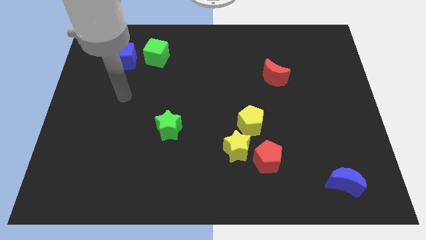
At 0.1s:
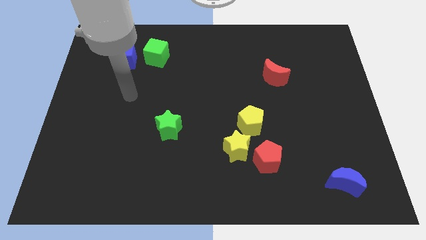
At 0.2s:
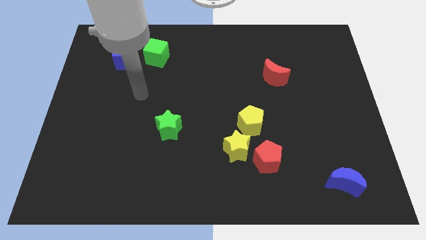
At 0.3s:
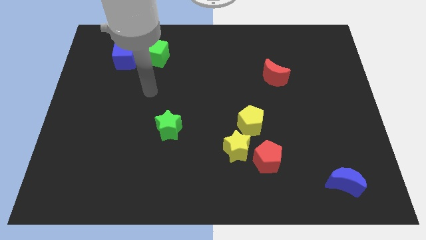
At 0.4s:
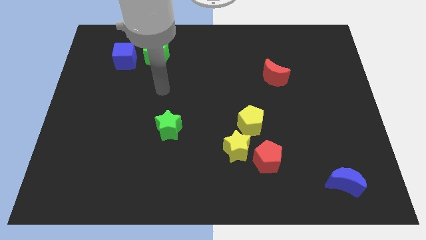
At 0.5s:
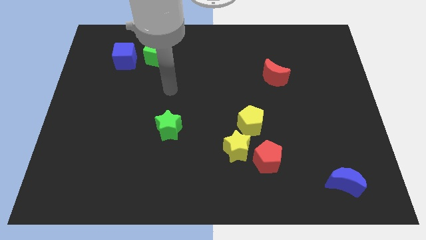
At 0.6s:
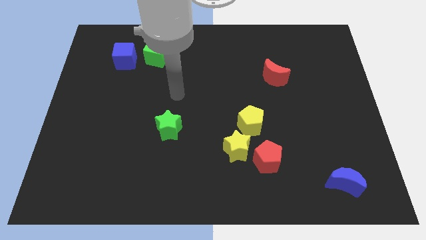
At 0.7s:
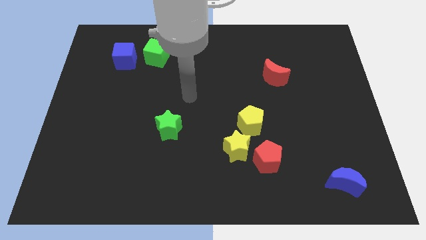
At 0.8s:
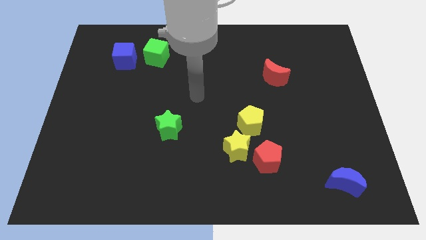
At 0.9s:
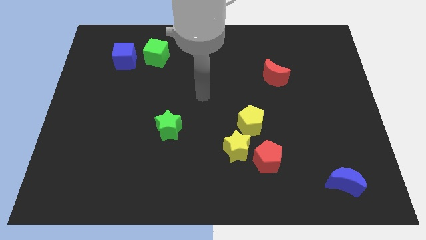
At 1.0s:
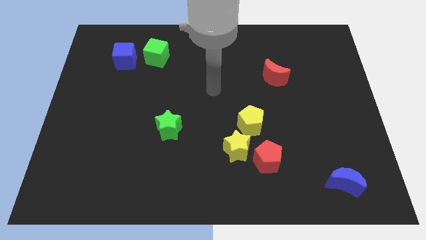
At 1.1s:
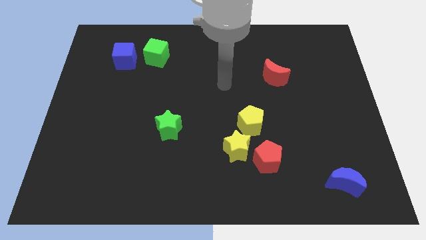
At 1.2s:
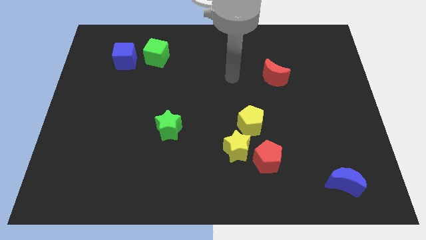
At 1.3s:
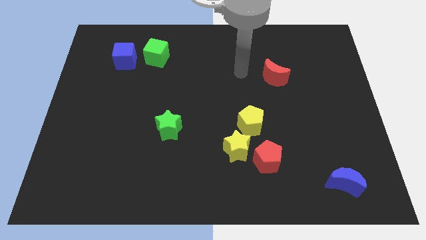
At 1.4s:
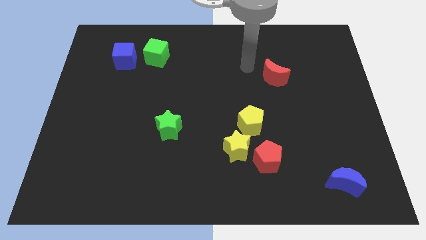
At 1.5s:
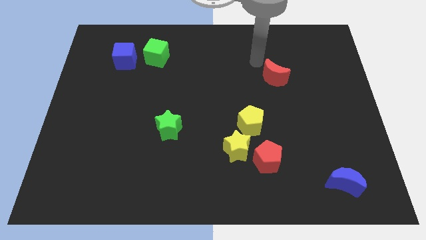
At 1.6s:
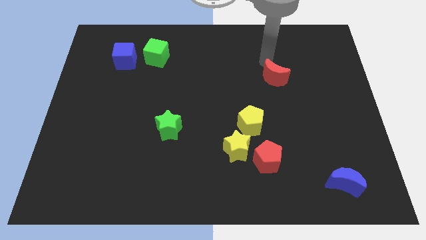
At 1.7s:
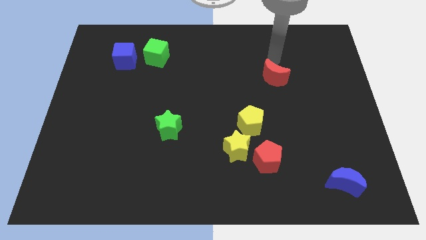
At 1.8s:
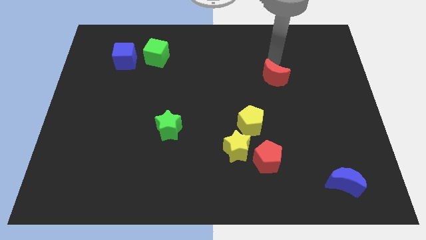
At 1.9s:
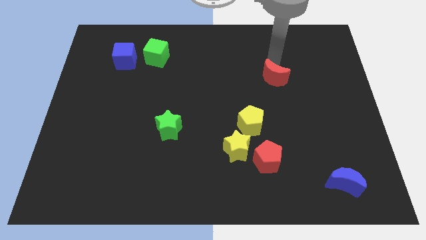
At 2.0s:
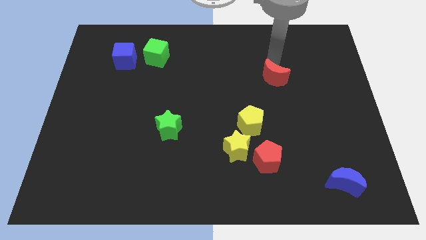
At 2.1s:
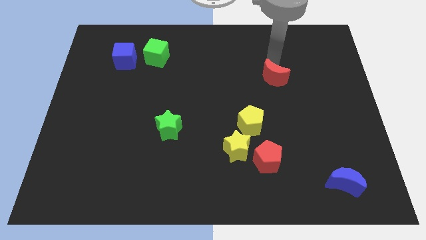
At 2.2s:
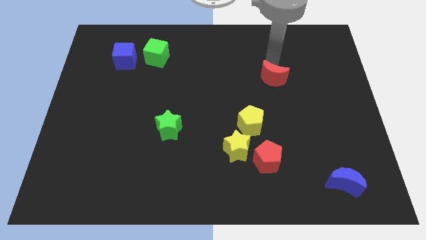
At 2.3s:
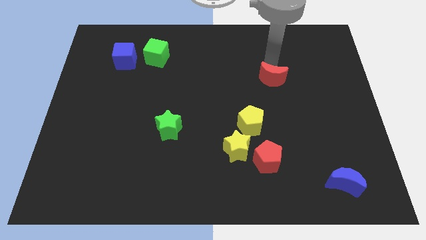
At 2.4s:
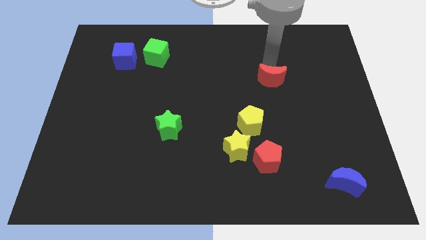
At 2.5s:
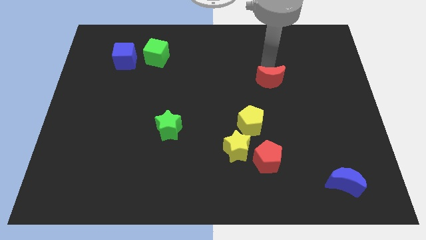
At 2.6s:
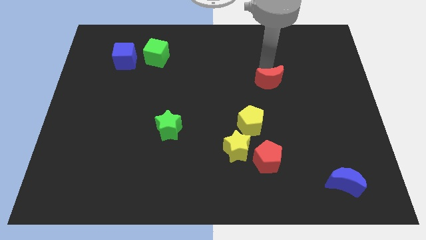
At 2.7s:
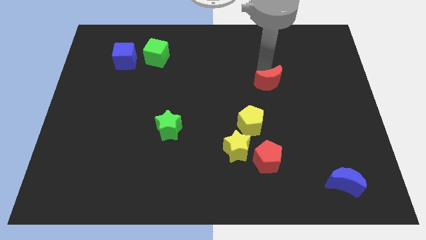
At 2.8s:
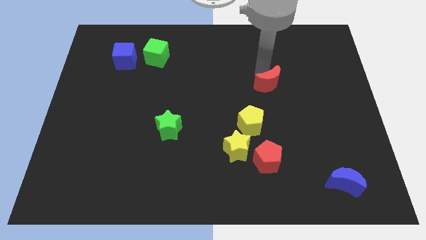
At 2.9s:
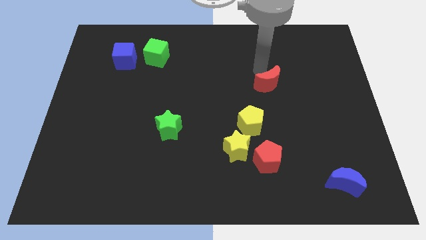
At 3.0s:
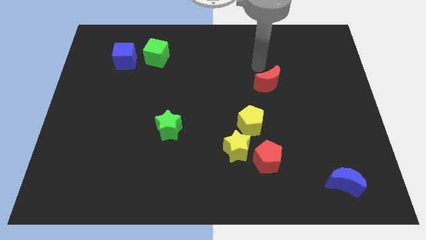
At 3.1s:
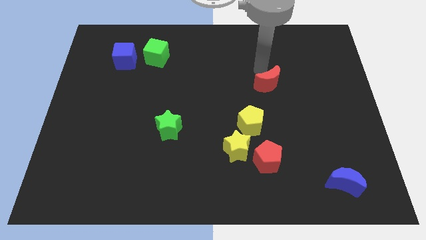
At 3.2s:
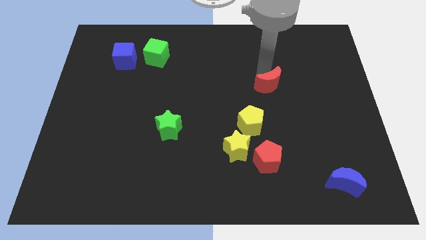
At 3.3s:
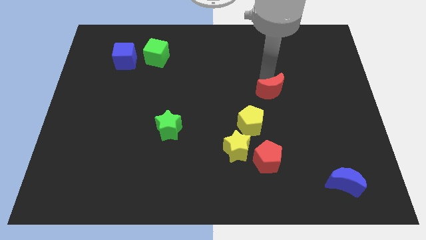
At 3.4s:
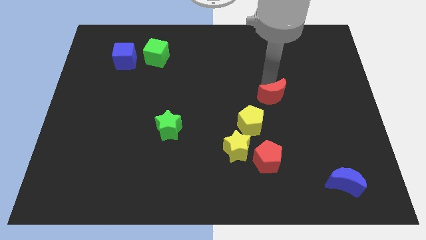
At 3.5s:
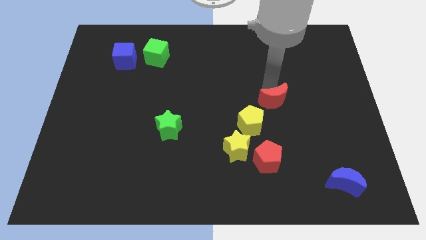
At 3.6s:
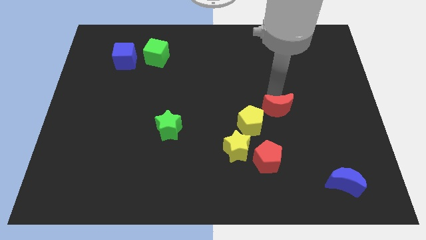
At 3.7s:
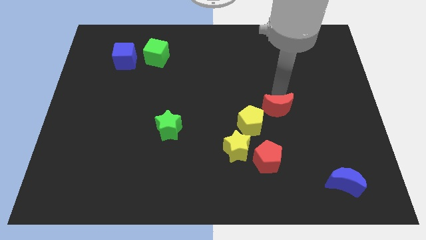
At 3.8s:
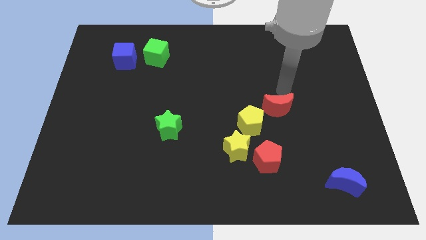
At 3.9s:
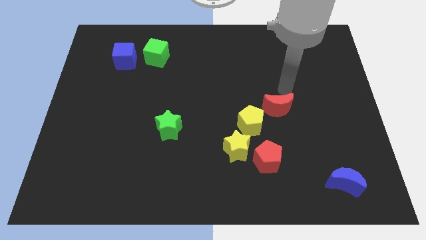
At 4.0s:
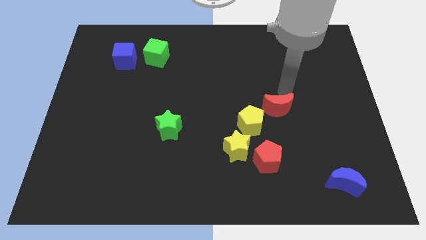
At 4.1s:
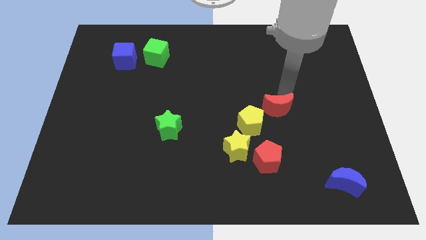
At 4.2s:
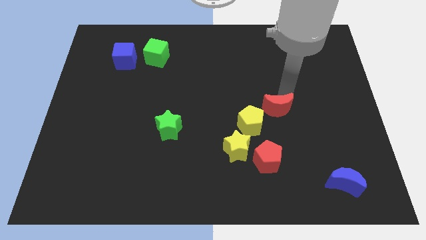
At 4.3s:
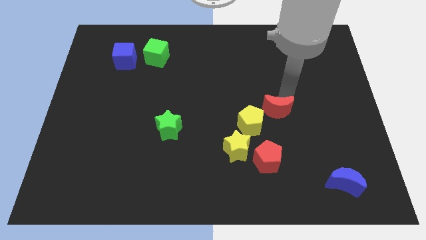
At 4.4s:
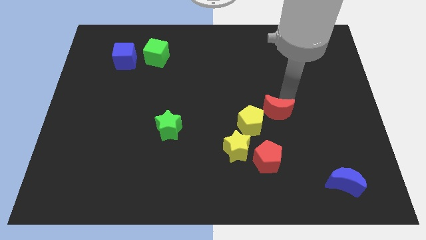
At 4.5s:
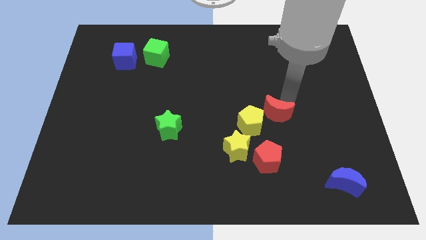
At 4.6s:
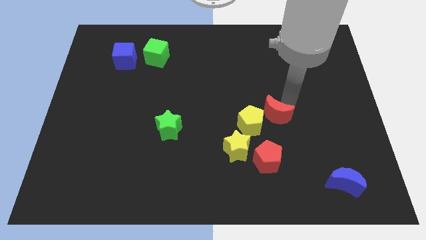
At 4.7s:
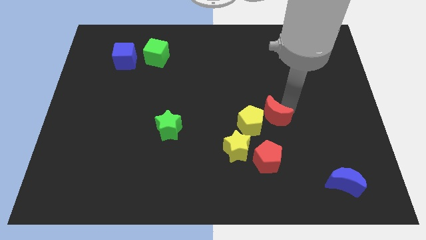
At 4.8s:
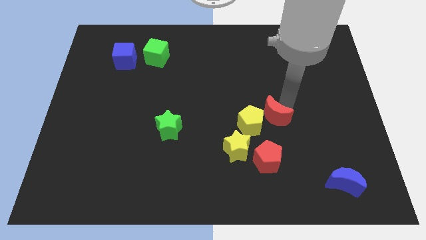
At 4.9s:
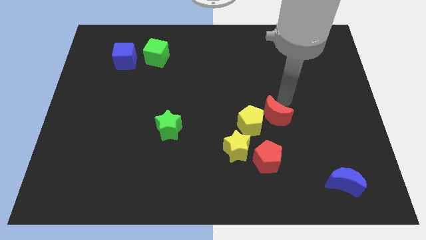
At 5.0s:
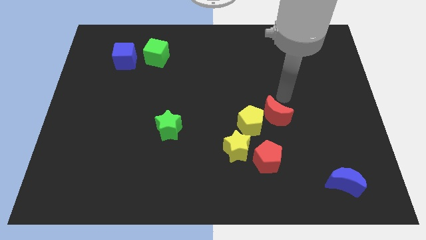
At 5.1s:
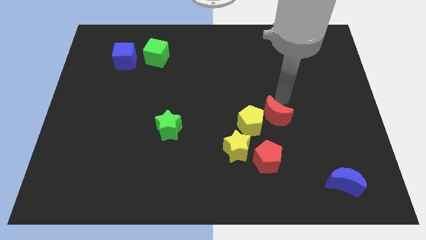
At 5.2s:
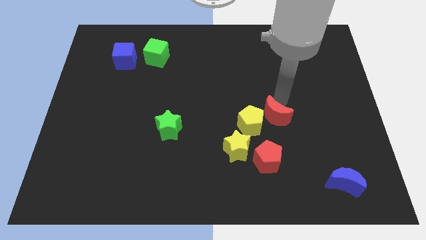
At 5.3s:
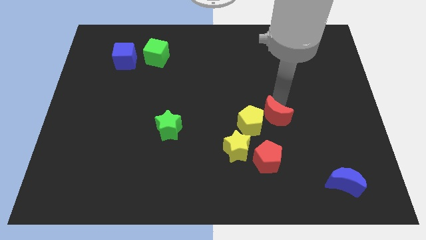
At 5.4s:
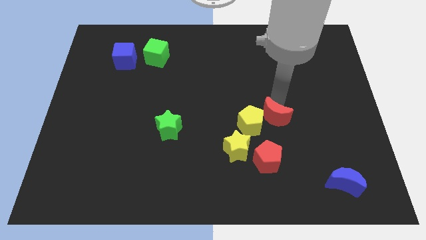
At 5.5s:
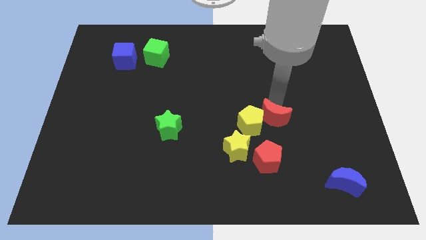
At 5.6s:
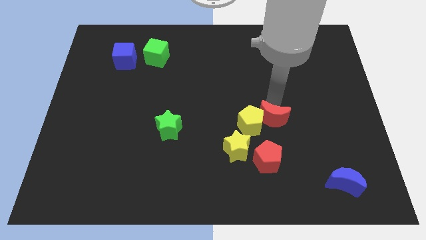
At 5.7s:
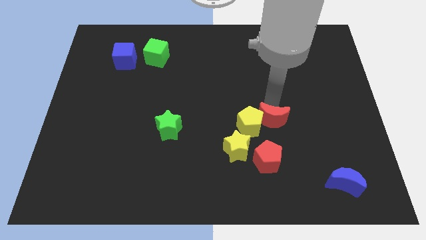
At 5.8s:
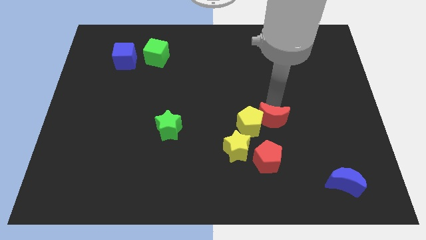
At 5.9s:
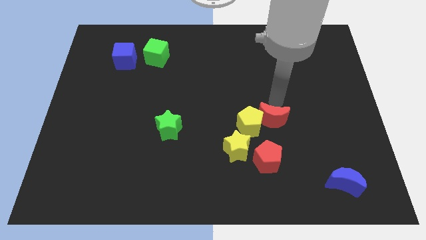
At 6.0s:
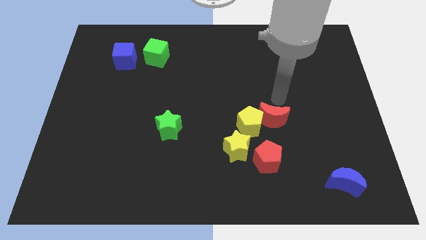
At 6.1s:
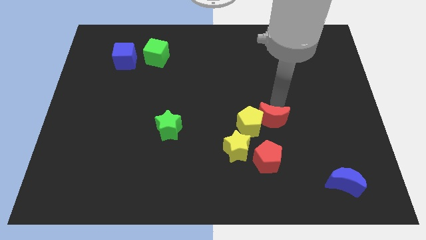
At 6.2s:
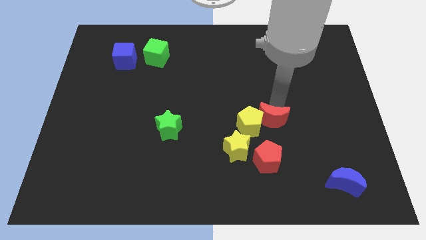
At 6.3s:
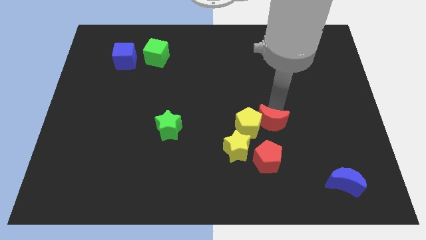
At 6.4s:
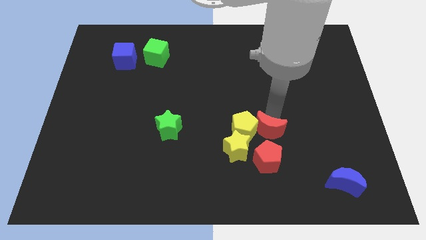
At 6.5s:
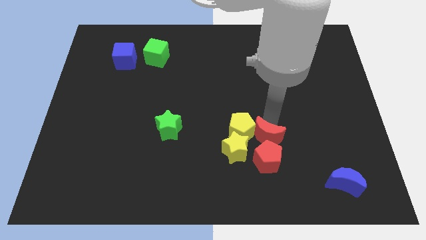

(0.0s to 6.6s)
put the red moon to the red pentagon

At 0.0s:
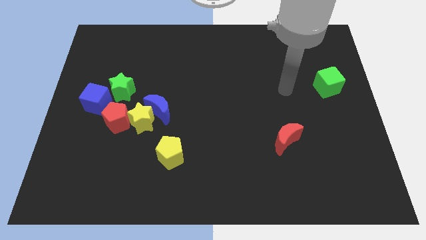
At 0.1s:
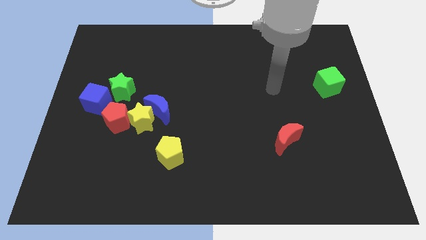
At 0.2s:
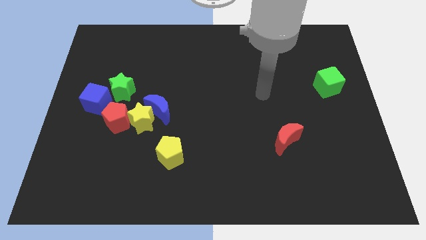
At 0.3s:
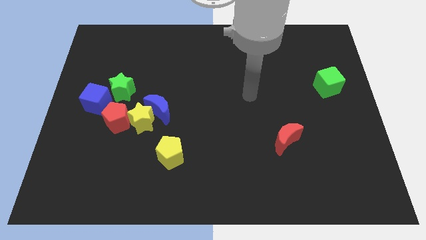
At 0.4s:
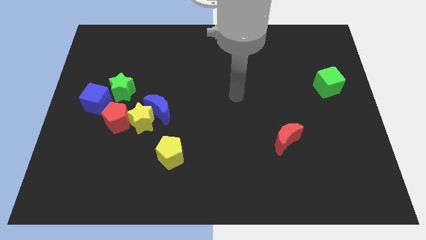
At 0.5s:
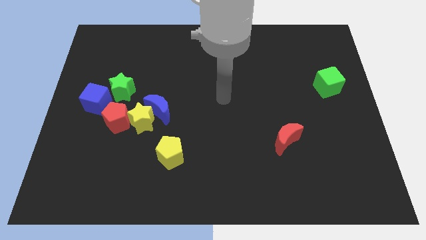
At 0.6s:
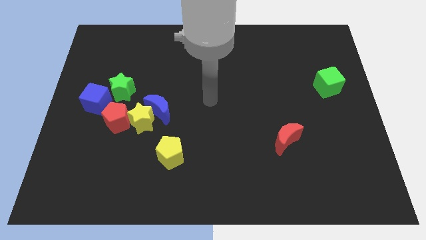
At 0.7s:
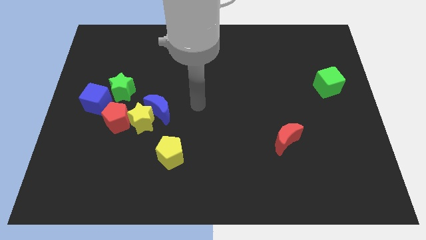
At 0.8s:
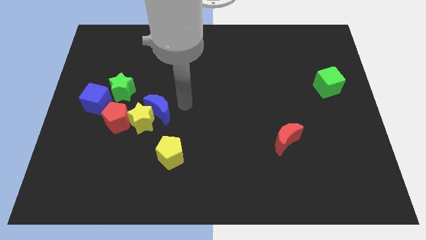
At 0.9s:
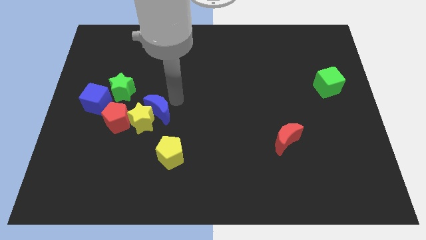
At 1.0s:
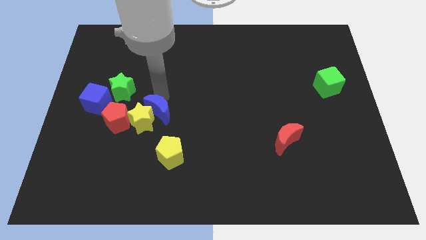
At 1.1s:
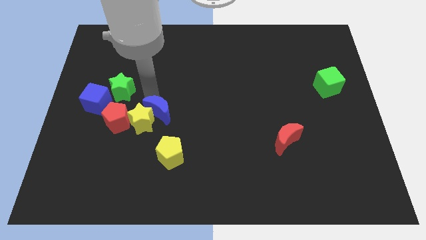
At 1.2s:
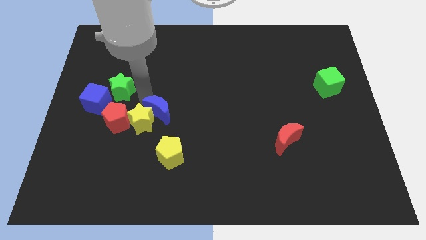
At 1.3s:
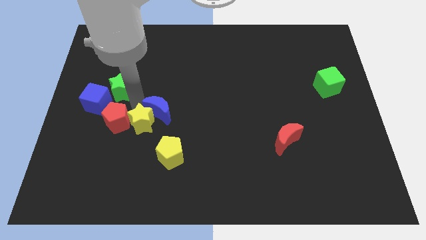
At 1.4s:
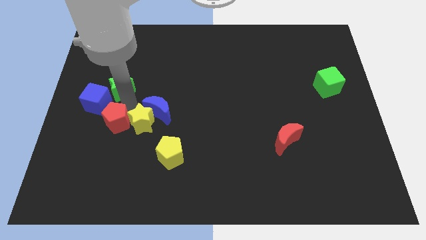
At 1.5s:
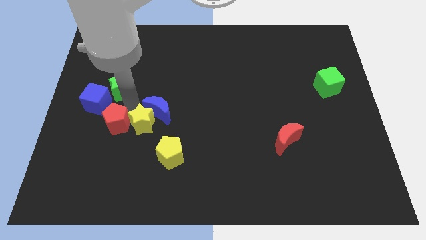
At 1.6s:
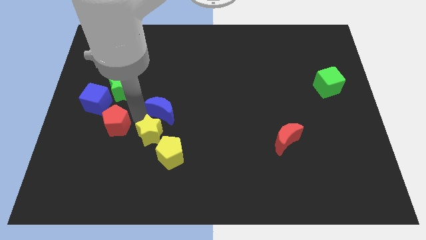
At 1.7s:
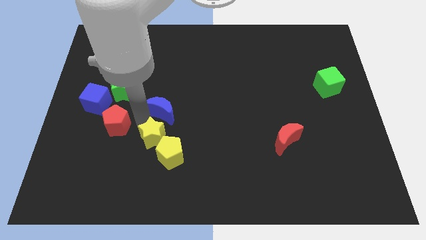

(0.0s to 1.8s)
slide the yellow star next to the yellow pentagon
